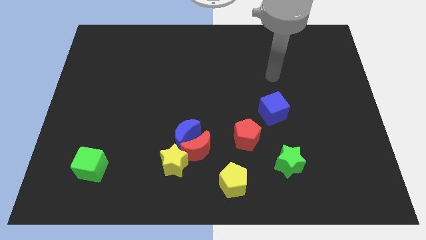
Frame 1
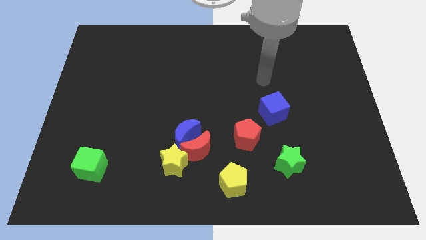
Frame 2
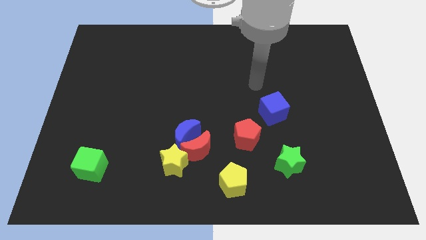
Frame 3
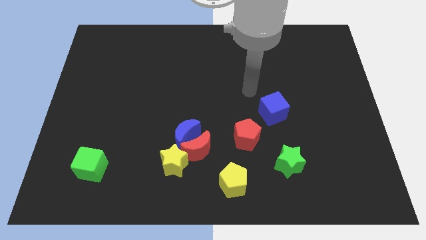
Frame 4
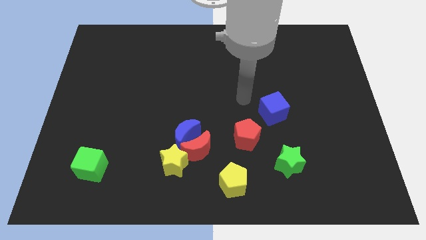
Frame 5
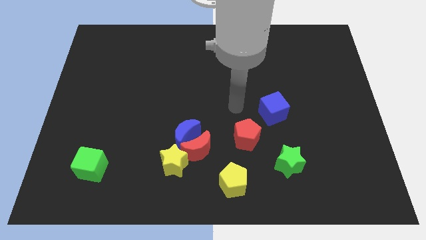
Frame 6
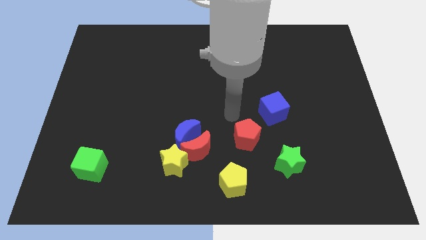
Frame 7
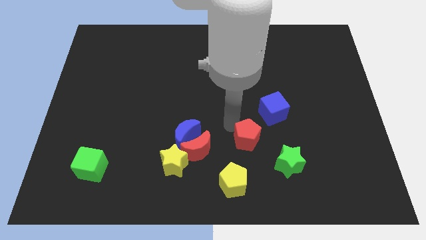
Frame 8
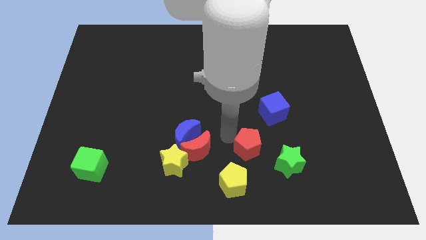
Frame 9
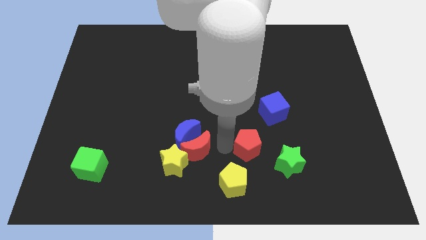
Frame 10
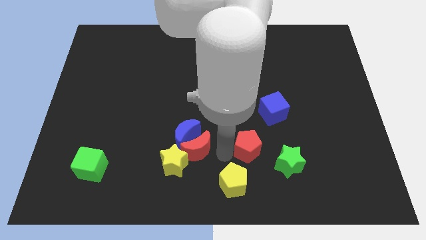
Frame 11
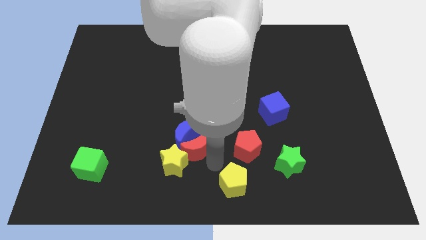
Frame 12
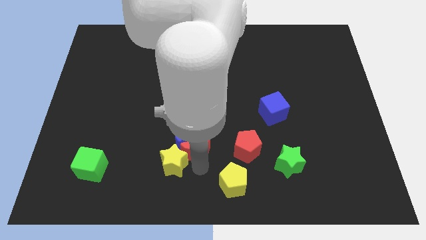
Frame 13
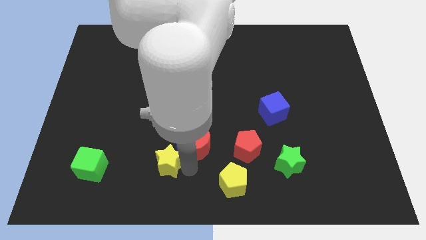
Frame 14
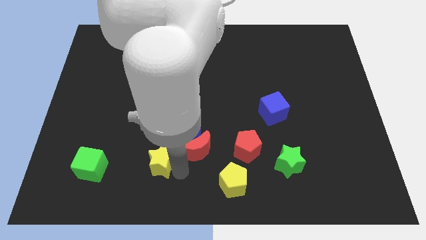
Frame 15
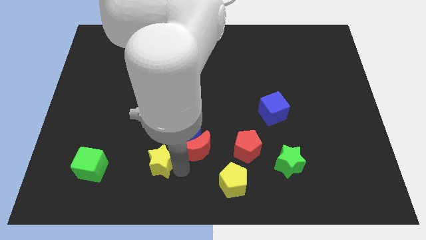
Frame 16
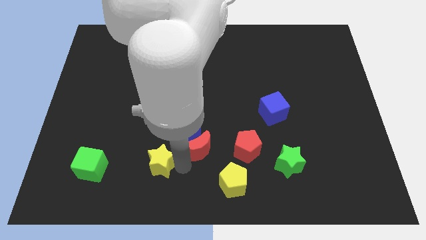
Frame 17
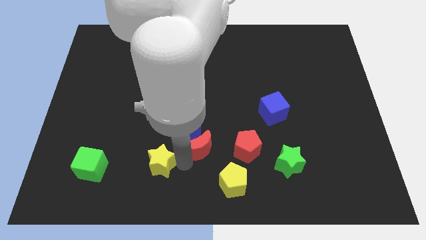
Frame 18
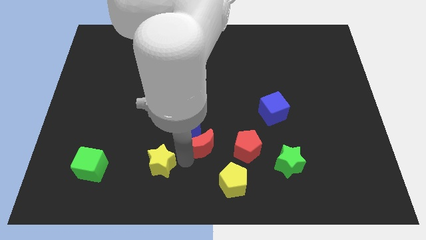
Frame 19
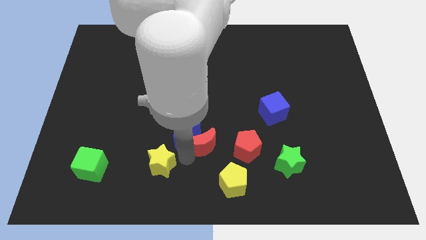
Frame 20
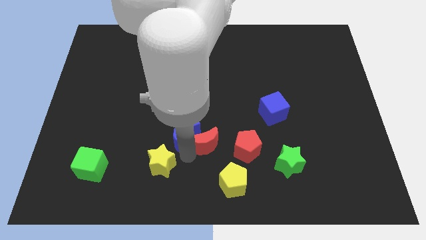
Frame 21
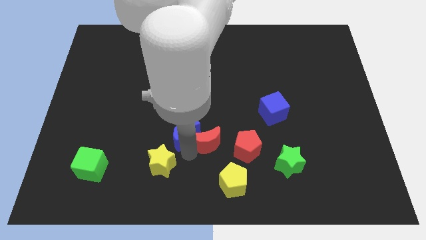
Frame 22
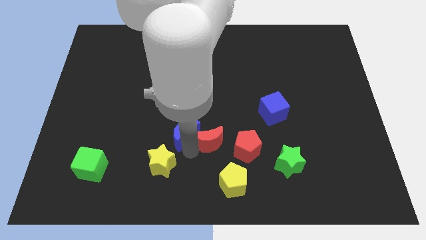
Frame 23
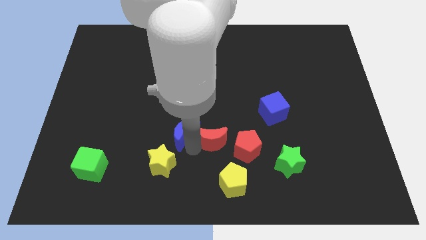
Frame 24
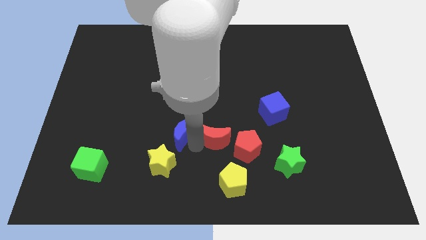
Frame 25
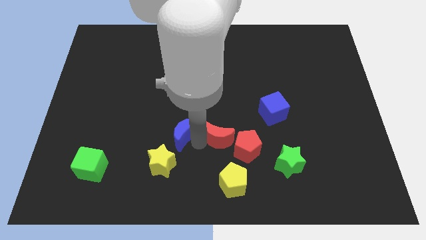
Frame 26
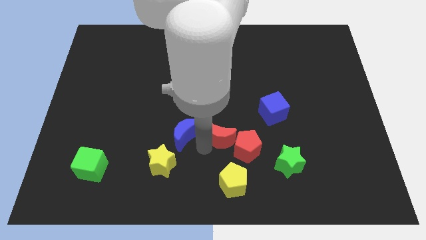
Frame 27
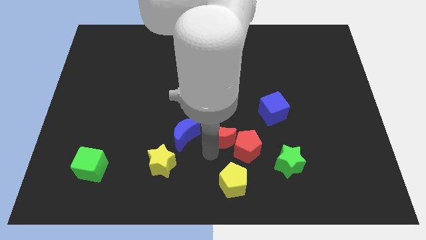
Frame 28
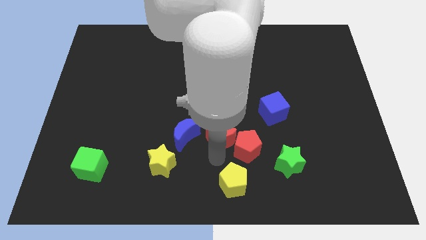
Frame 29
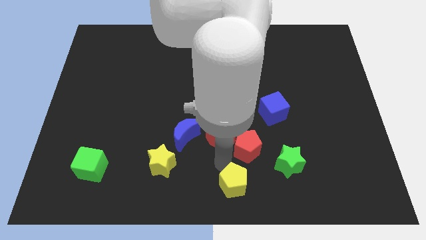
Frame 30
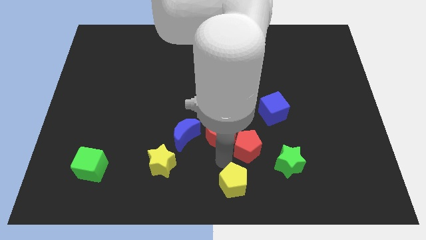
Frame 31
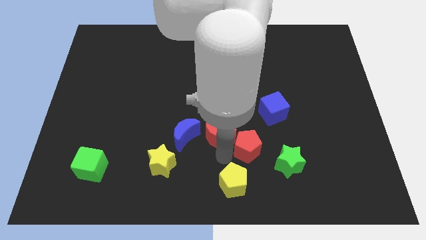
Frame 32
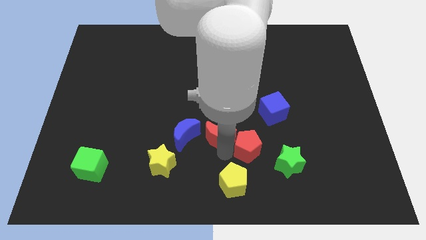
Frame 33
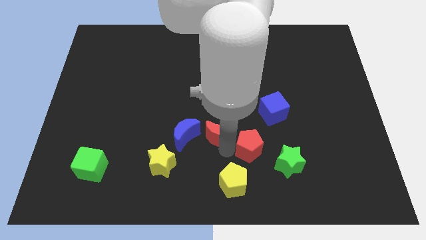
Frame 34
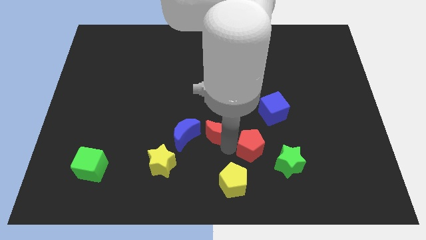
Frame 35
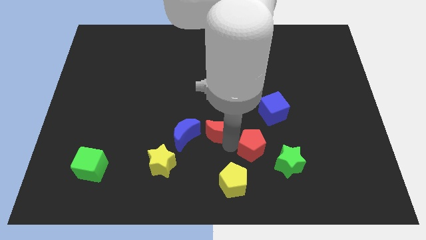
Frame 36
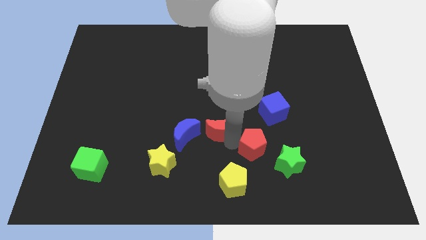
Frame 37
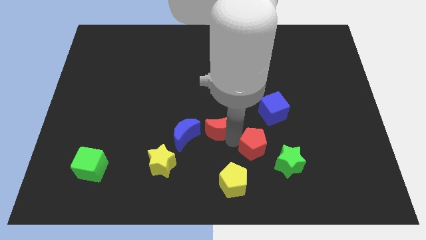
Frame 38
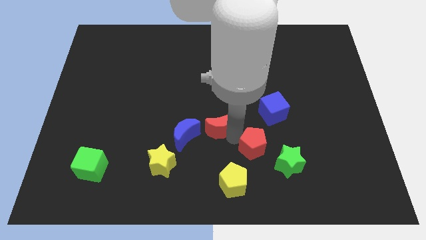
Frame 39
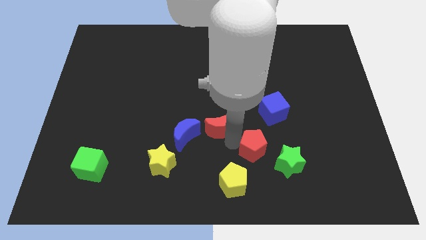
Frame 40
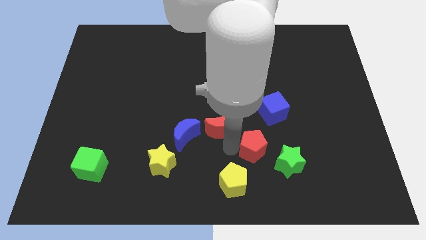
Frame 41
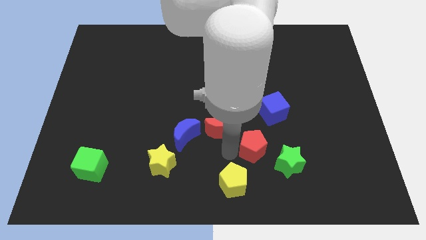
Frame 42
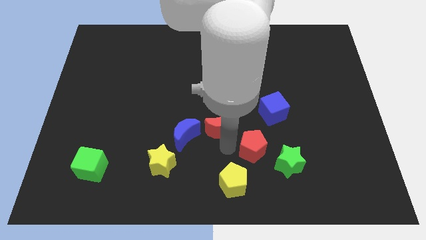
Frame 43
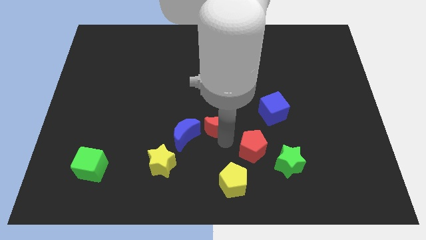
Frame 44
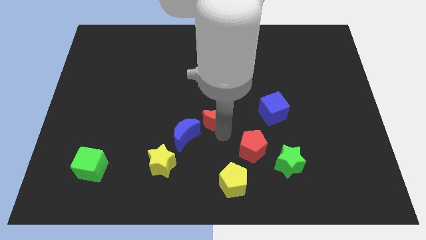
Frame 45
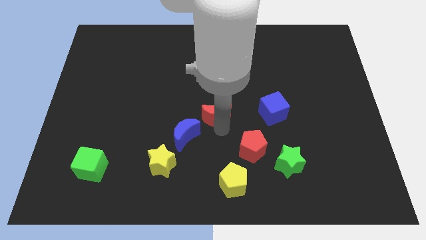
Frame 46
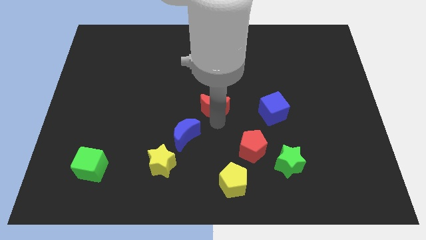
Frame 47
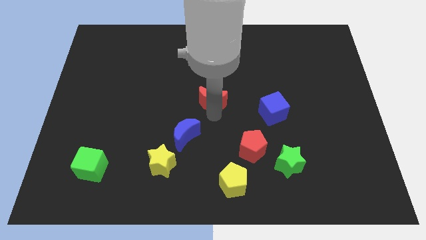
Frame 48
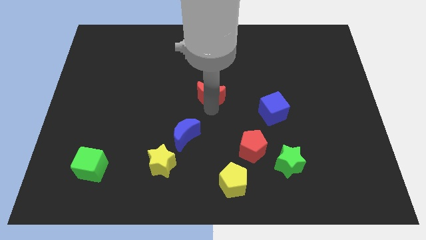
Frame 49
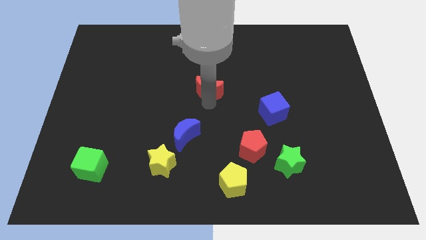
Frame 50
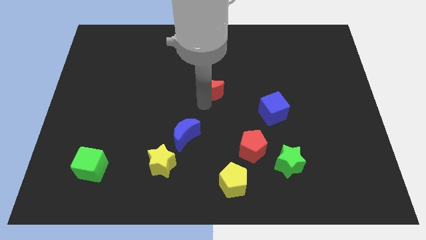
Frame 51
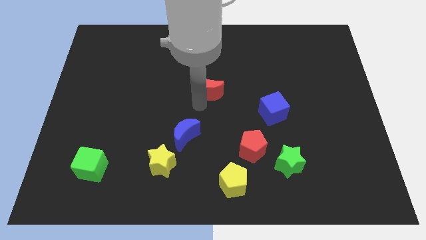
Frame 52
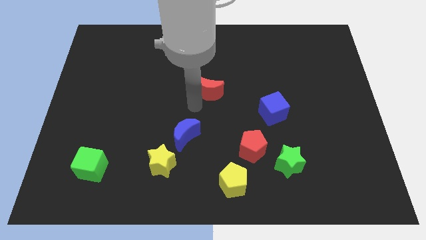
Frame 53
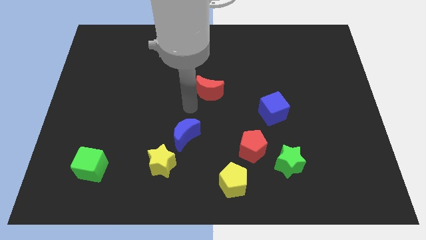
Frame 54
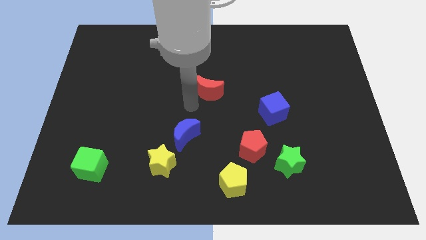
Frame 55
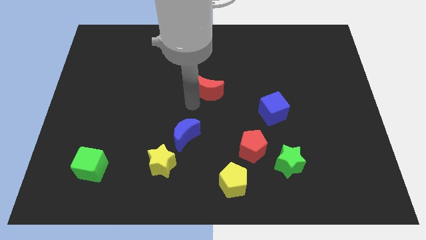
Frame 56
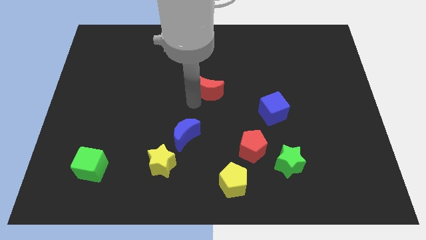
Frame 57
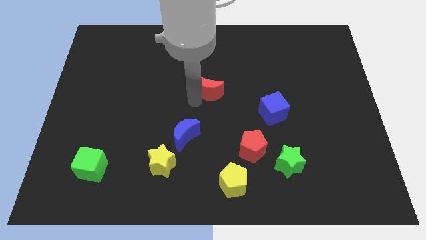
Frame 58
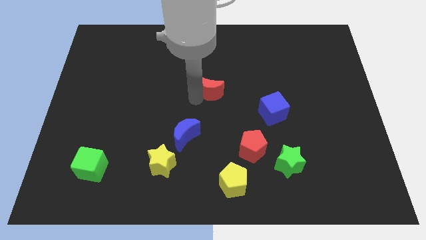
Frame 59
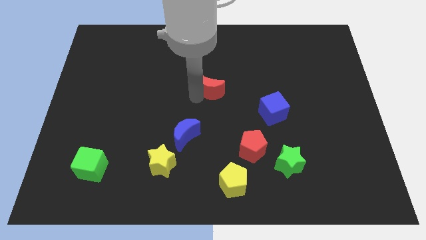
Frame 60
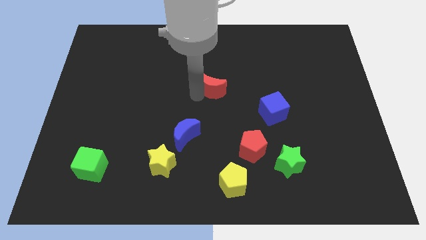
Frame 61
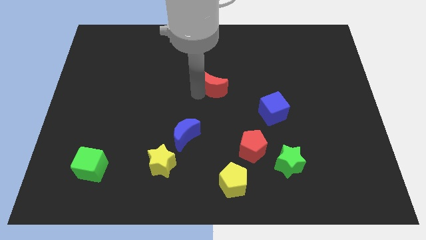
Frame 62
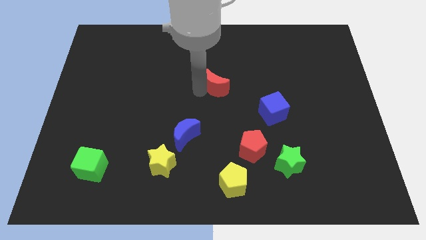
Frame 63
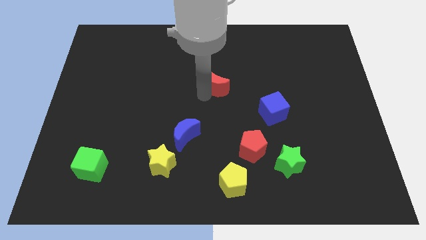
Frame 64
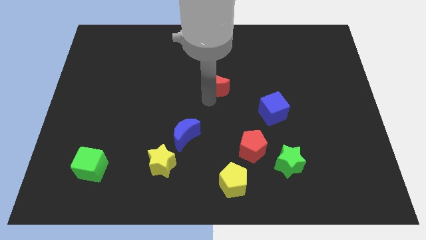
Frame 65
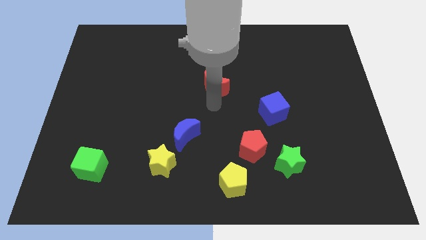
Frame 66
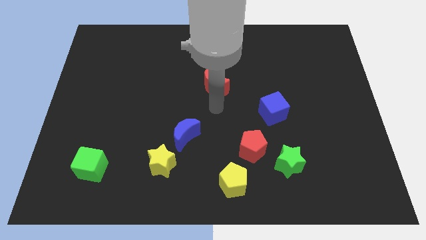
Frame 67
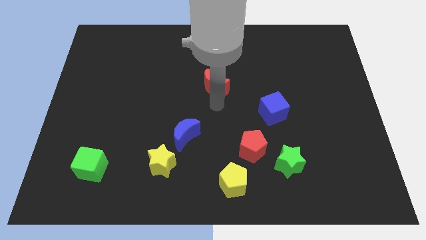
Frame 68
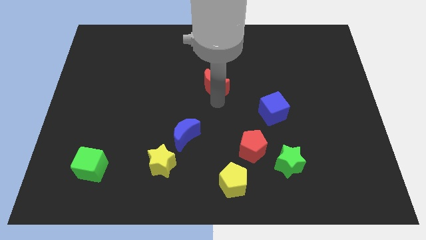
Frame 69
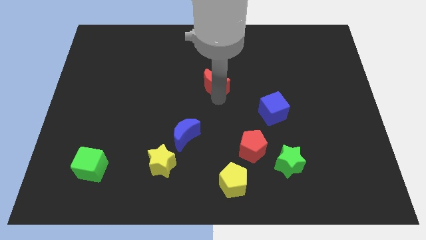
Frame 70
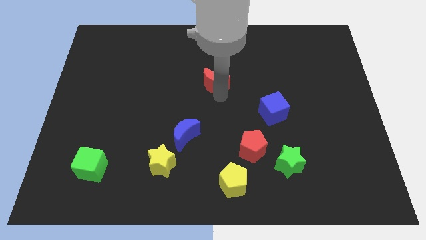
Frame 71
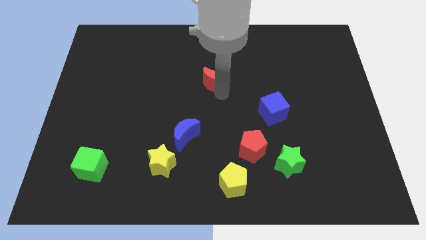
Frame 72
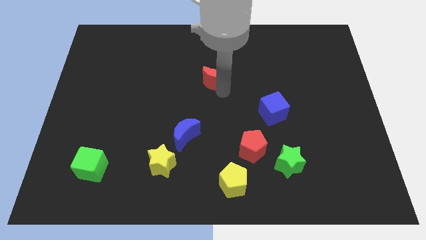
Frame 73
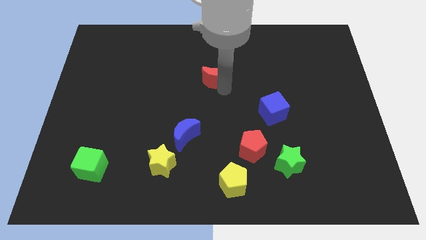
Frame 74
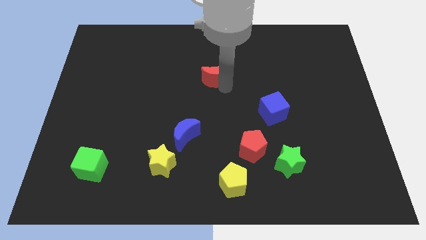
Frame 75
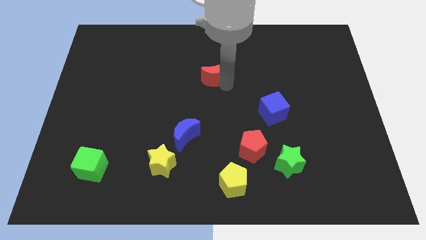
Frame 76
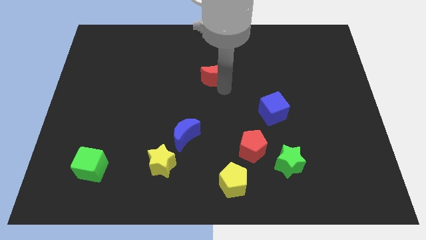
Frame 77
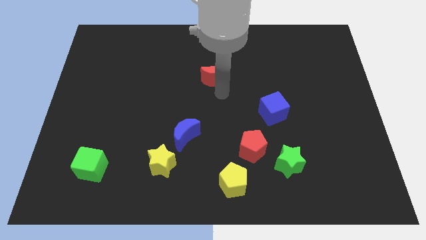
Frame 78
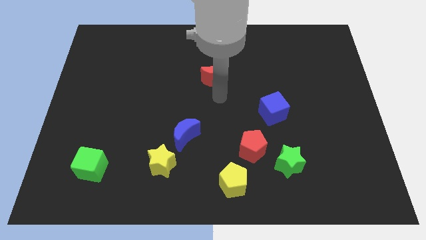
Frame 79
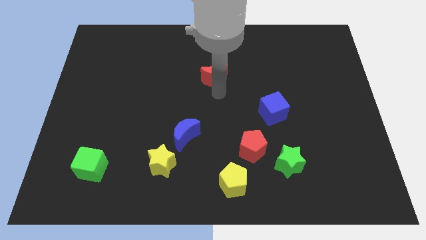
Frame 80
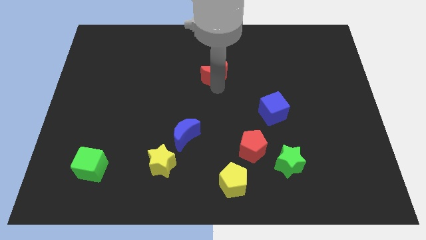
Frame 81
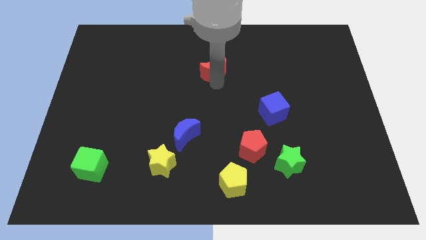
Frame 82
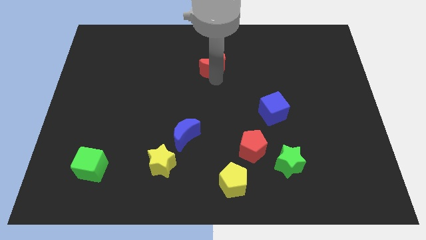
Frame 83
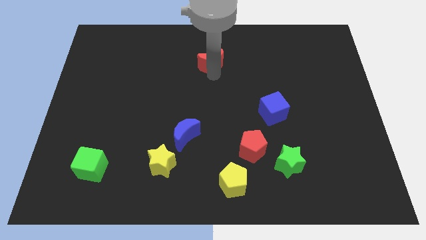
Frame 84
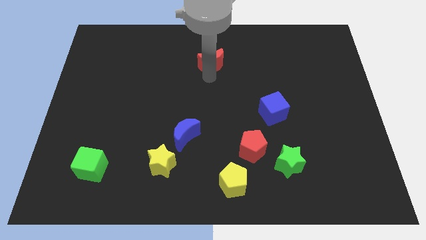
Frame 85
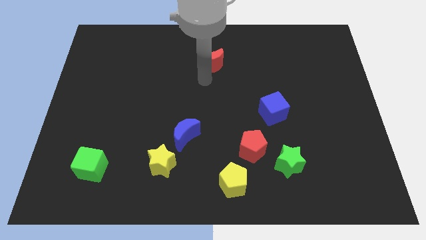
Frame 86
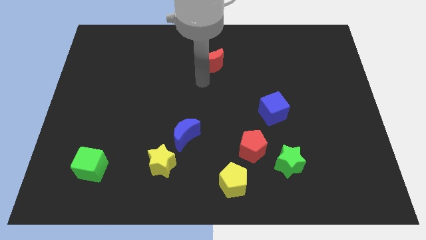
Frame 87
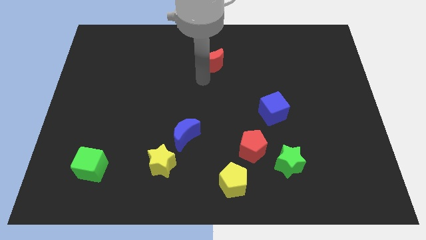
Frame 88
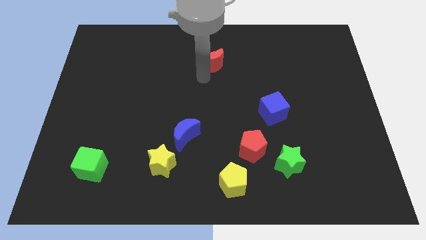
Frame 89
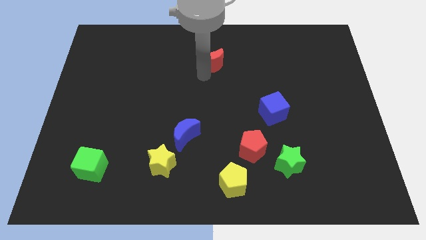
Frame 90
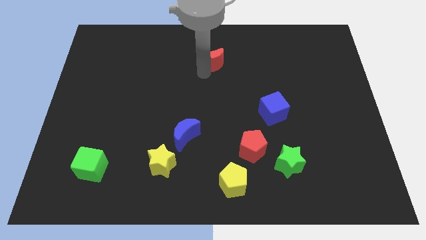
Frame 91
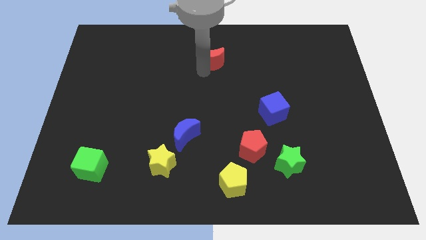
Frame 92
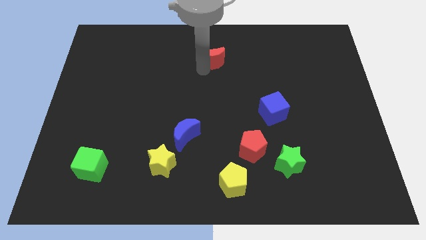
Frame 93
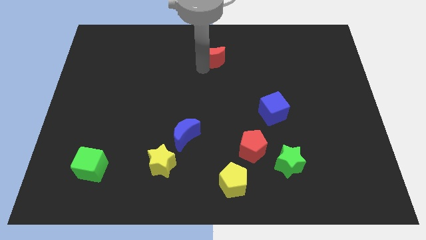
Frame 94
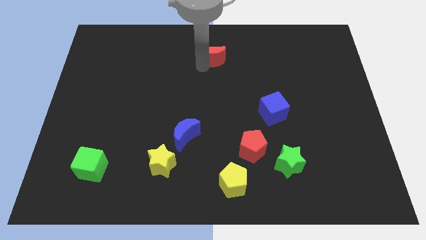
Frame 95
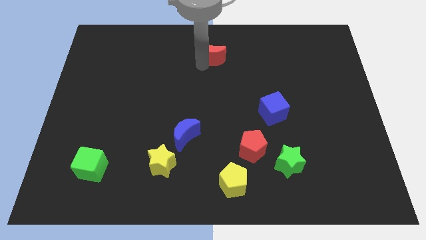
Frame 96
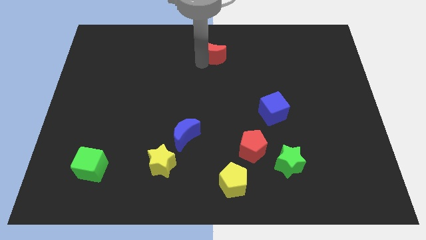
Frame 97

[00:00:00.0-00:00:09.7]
move the red moon to the towards your base
